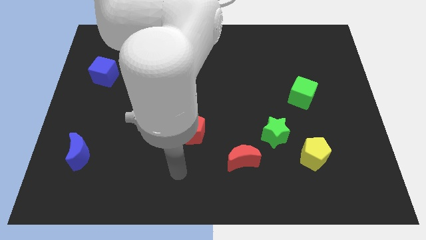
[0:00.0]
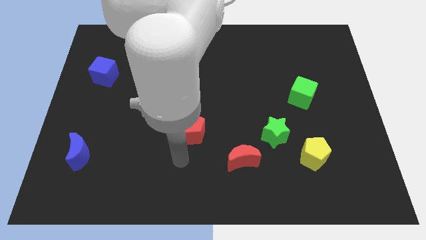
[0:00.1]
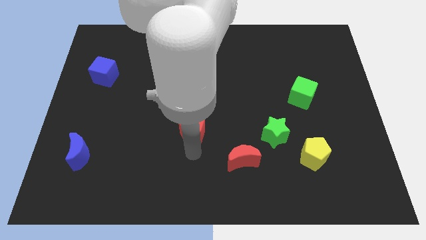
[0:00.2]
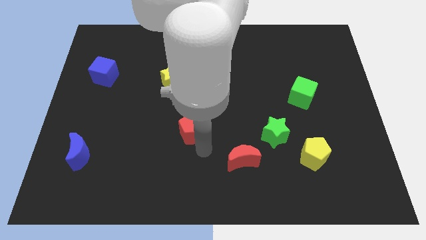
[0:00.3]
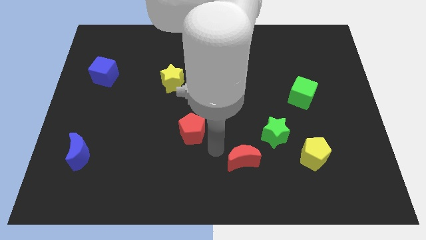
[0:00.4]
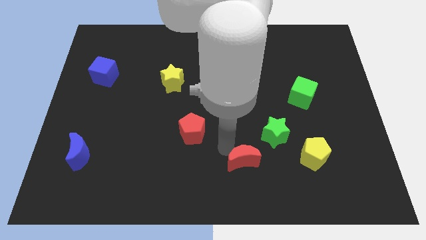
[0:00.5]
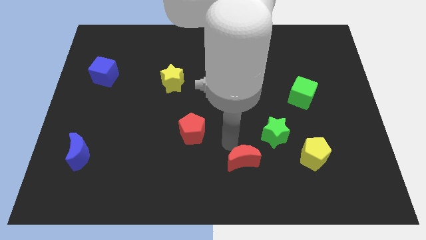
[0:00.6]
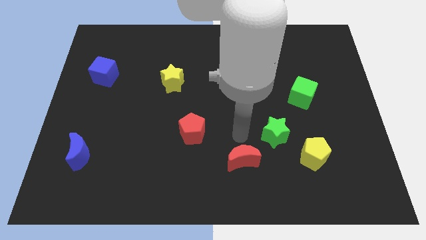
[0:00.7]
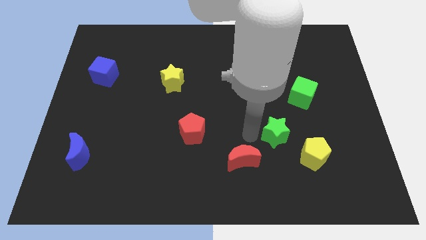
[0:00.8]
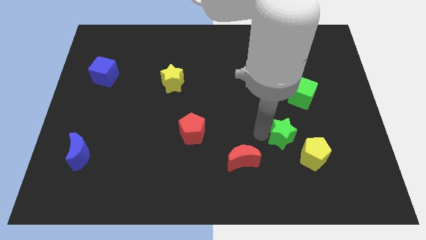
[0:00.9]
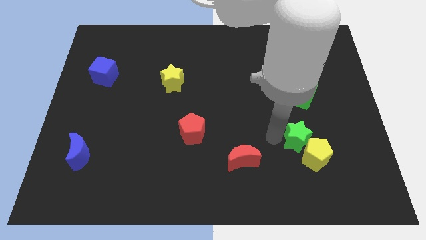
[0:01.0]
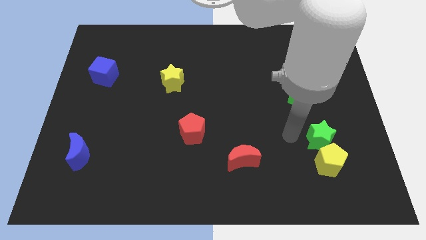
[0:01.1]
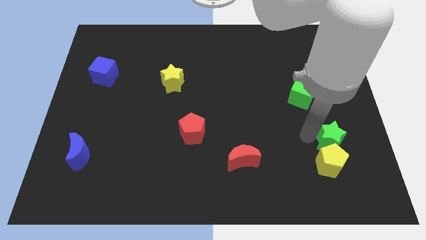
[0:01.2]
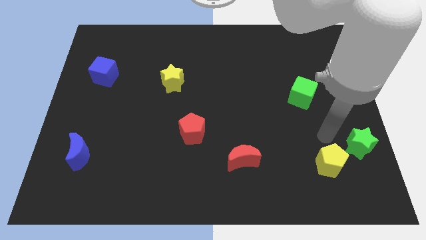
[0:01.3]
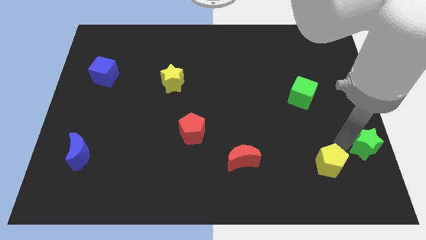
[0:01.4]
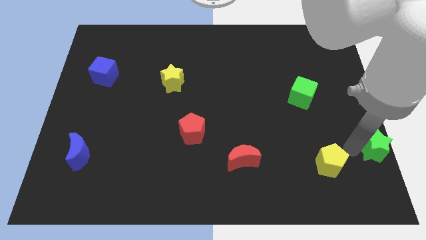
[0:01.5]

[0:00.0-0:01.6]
separate the yellow pentagon from the green star

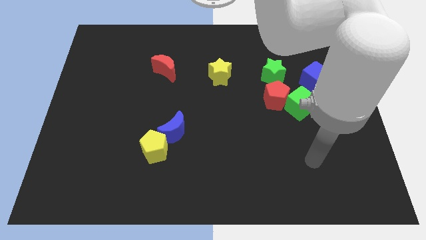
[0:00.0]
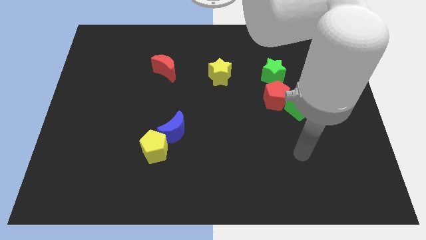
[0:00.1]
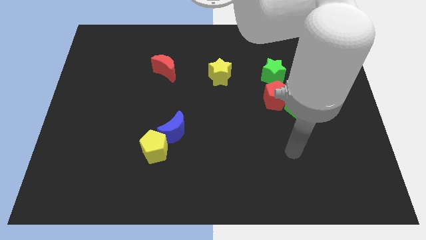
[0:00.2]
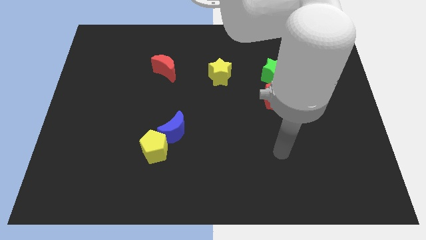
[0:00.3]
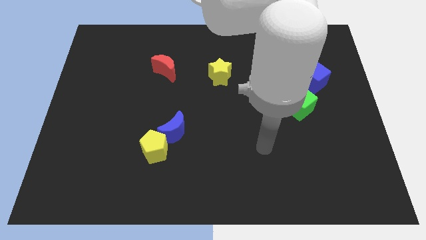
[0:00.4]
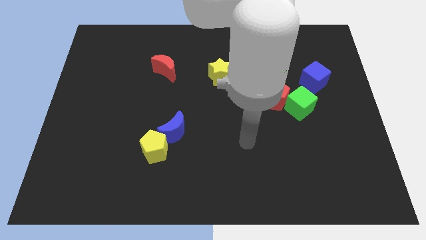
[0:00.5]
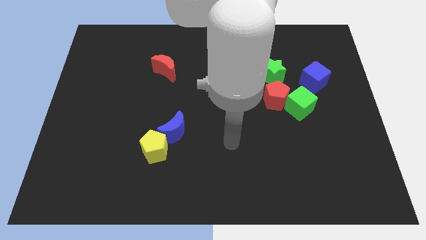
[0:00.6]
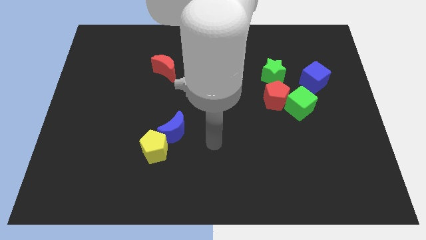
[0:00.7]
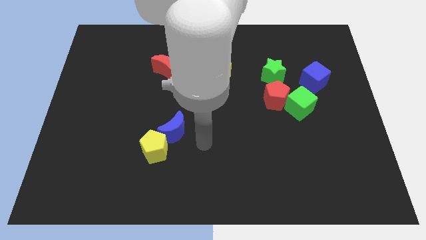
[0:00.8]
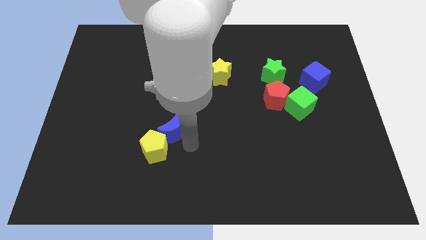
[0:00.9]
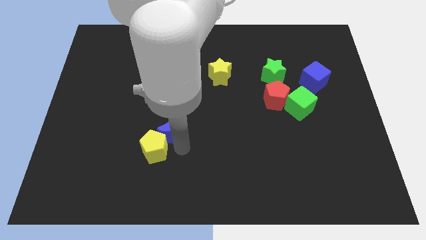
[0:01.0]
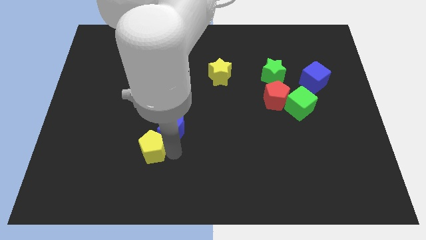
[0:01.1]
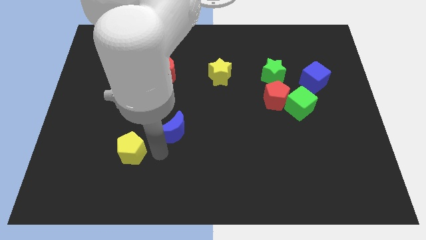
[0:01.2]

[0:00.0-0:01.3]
pull the blue moon apart from the yellow pentagon

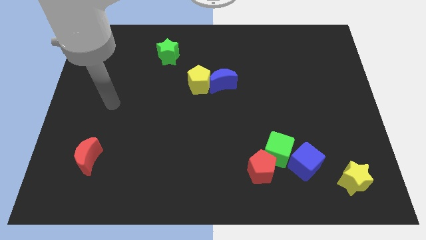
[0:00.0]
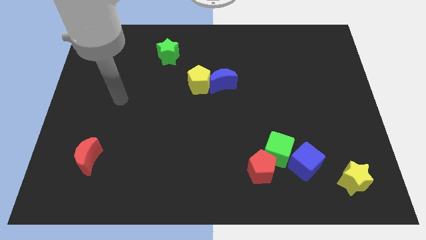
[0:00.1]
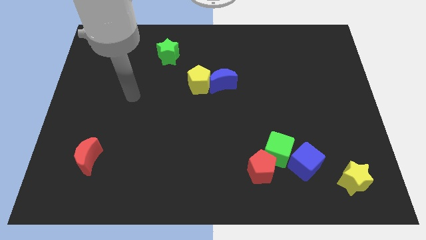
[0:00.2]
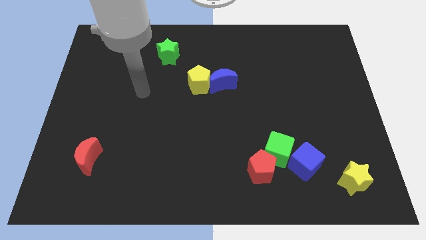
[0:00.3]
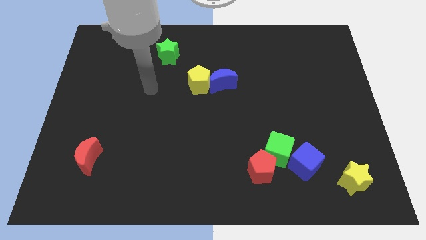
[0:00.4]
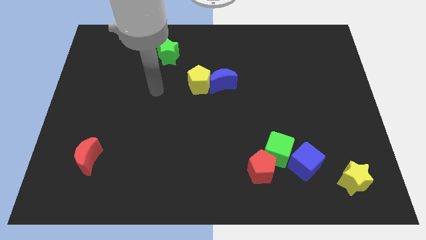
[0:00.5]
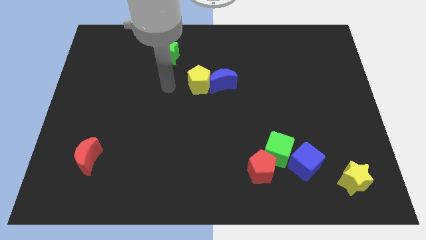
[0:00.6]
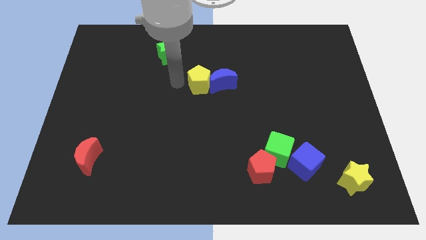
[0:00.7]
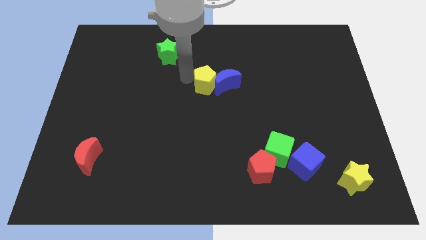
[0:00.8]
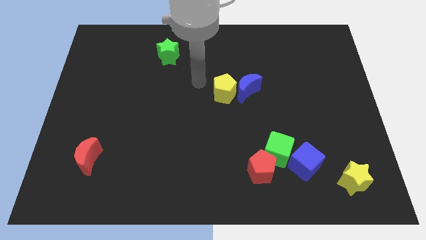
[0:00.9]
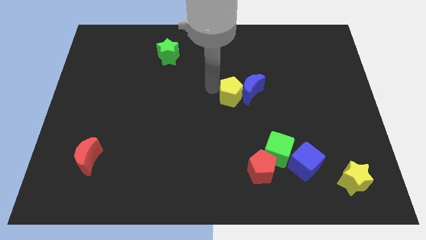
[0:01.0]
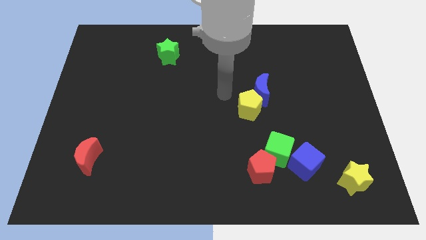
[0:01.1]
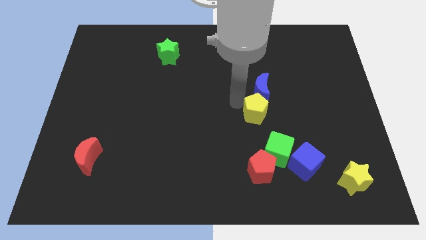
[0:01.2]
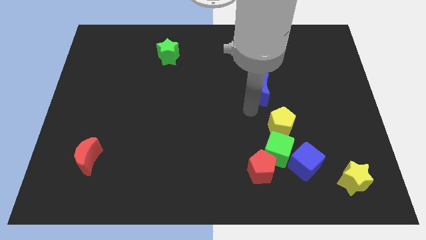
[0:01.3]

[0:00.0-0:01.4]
separate the blue moon from the yellow pentagon

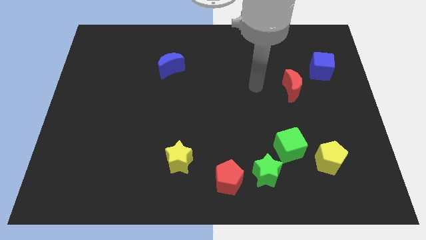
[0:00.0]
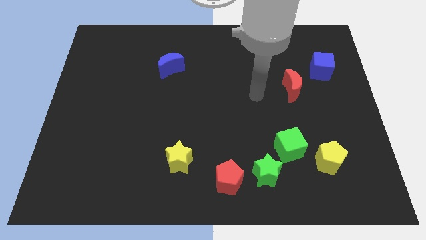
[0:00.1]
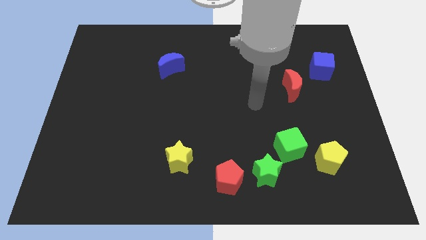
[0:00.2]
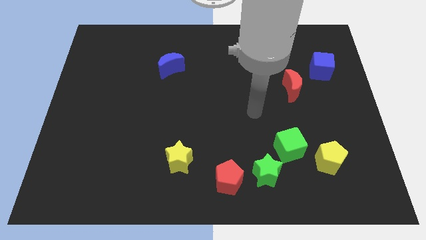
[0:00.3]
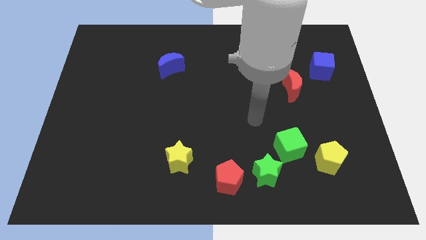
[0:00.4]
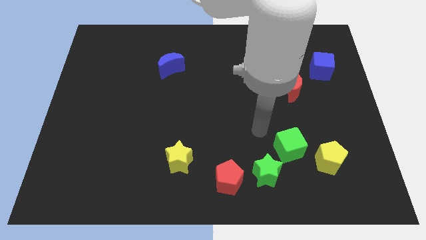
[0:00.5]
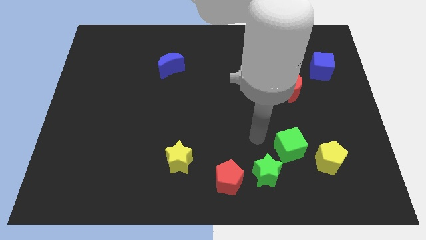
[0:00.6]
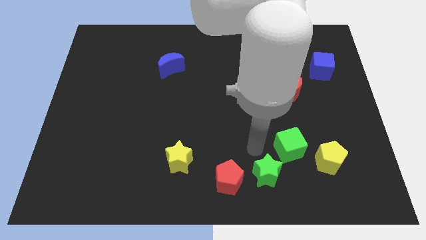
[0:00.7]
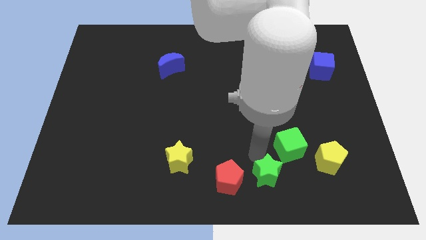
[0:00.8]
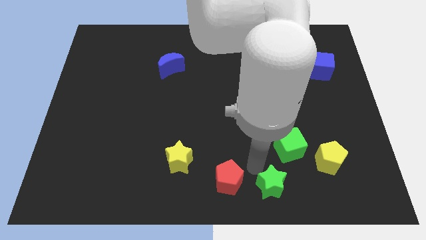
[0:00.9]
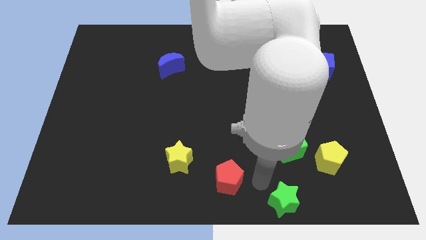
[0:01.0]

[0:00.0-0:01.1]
separate the red pentagon from the green star

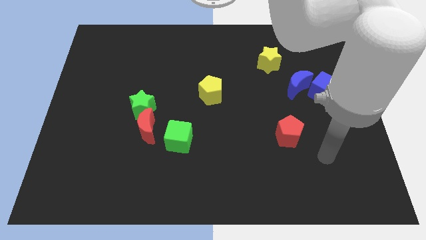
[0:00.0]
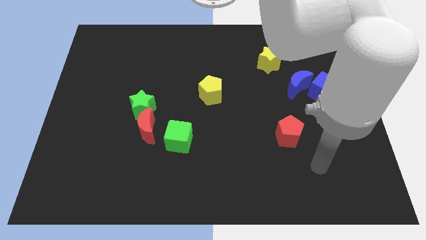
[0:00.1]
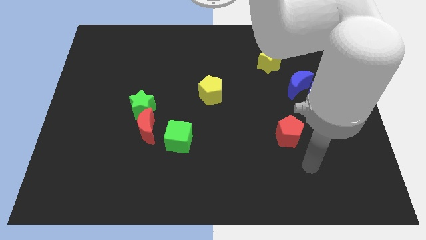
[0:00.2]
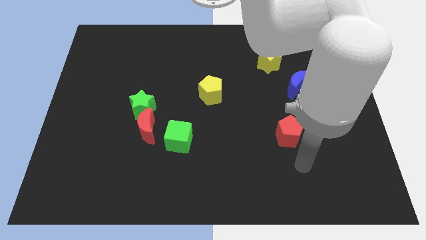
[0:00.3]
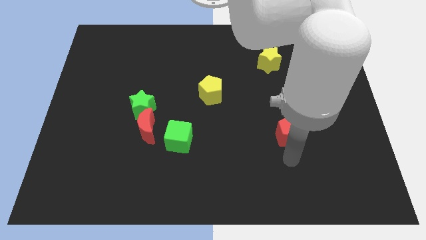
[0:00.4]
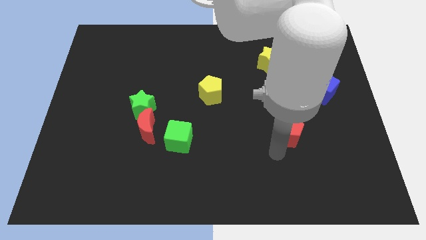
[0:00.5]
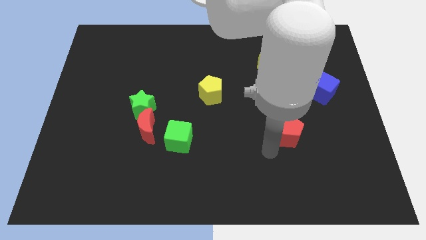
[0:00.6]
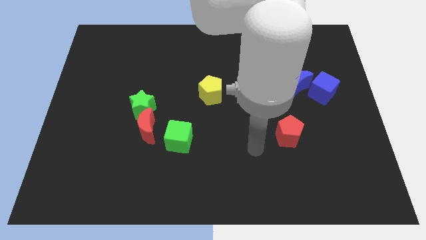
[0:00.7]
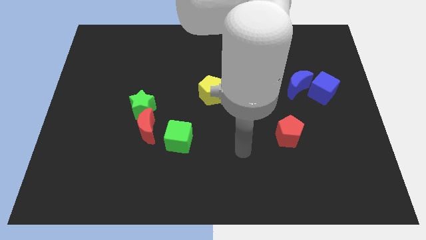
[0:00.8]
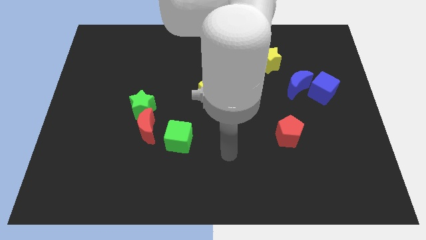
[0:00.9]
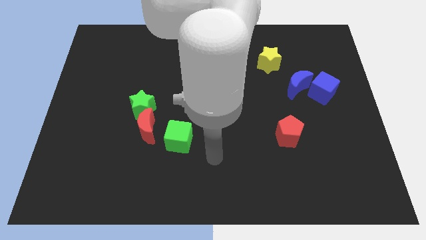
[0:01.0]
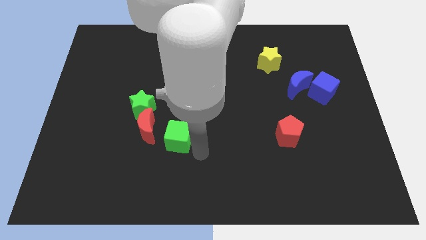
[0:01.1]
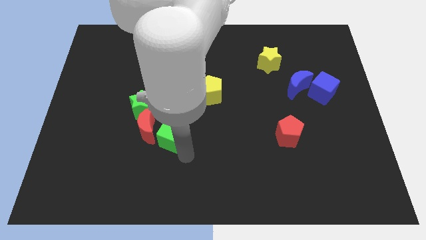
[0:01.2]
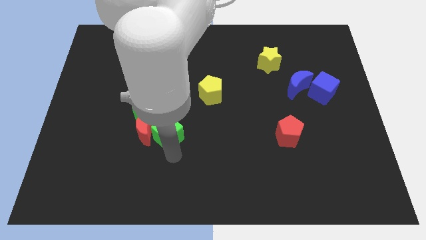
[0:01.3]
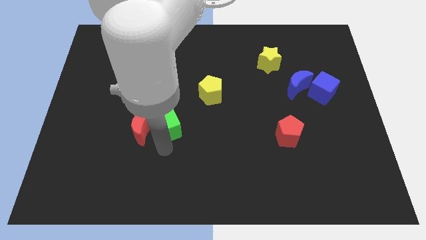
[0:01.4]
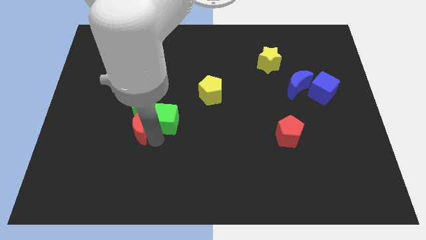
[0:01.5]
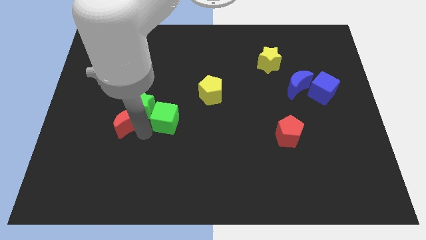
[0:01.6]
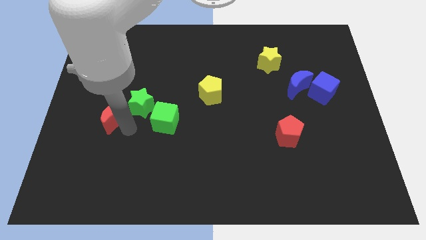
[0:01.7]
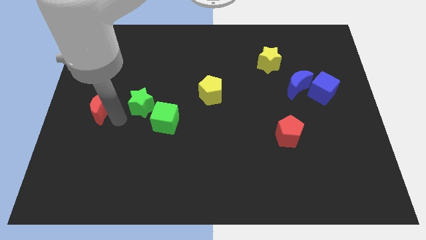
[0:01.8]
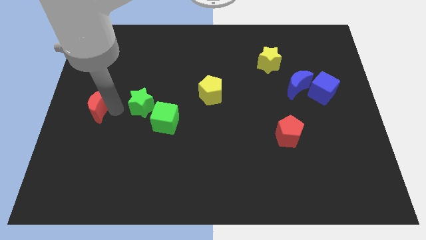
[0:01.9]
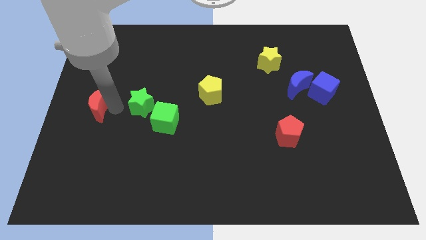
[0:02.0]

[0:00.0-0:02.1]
pull the green star apart from the red moon

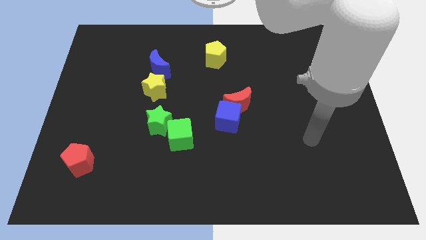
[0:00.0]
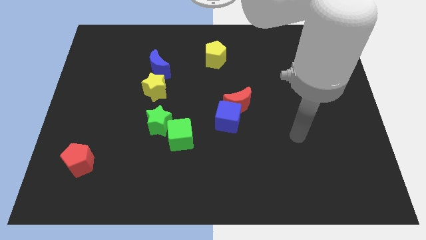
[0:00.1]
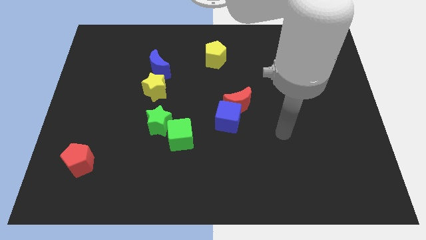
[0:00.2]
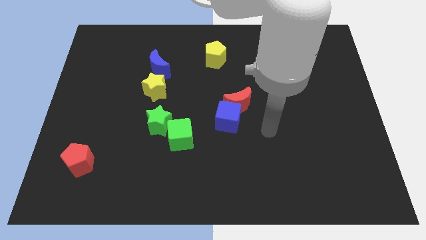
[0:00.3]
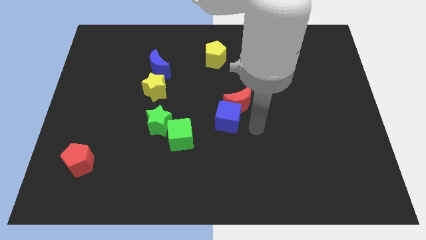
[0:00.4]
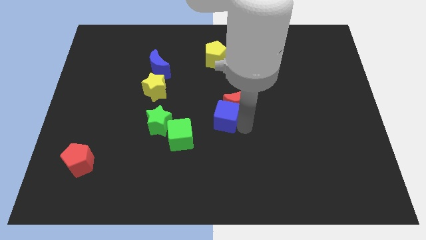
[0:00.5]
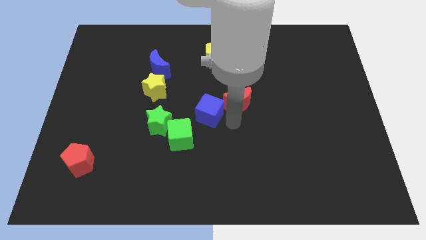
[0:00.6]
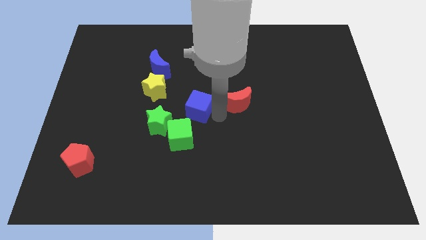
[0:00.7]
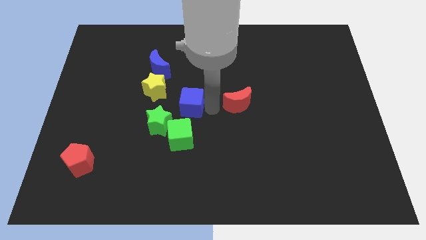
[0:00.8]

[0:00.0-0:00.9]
move the red moon away from the blue cube

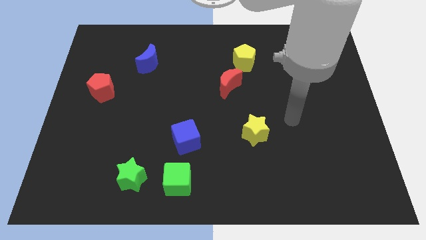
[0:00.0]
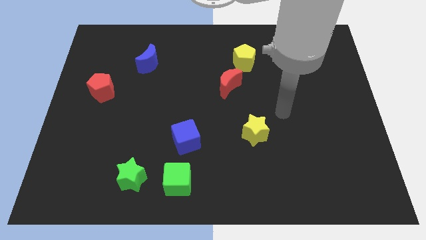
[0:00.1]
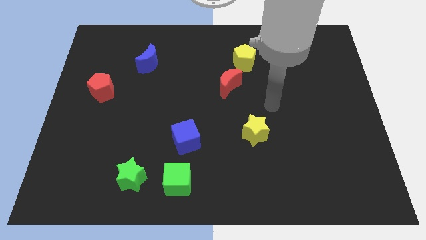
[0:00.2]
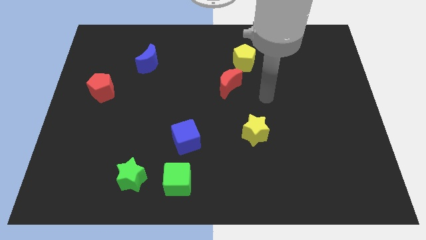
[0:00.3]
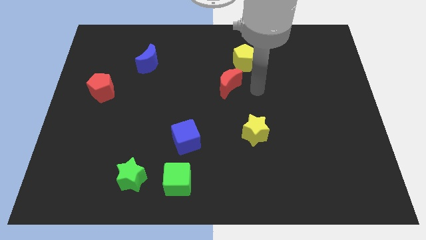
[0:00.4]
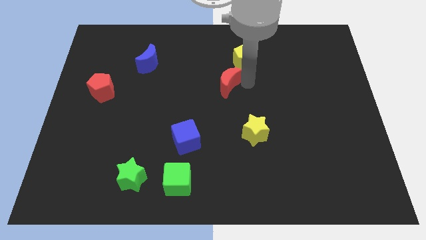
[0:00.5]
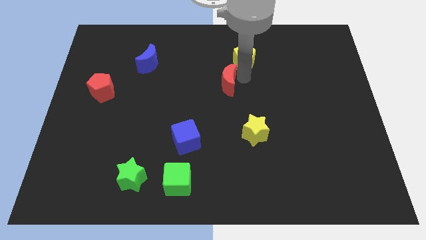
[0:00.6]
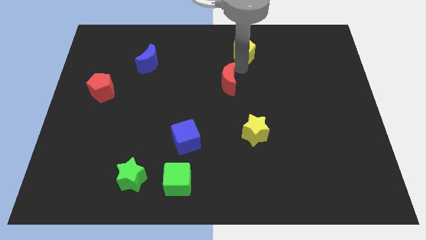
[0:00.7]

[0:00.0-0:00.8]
move the red moon away from the yellow pentagon
